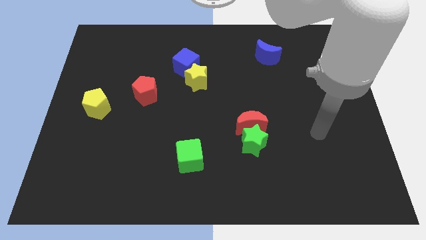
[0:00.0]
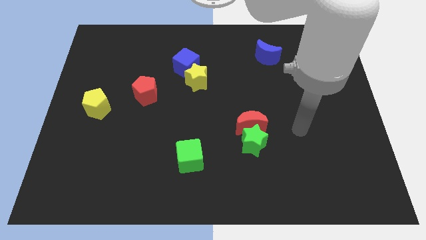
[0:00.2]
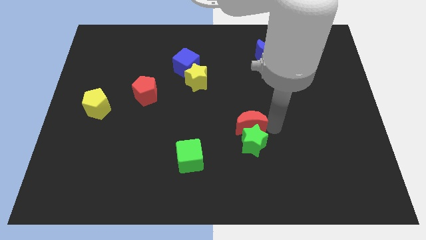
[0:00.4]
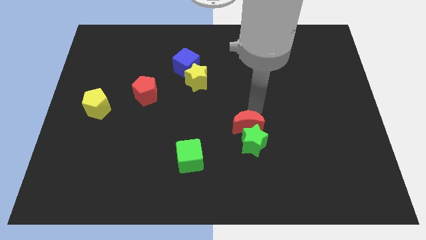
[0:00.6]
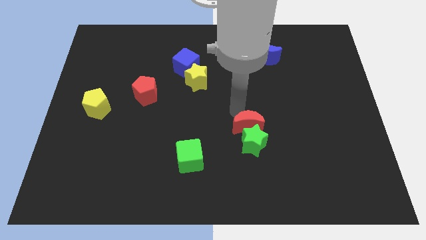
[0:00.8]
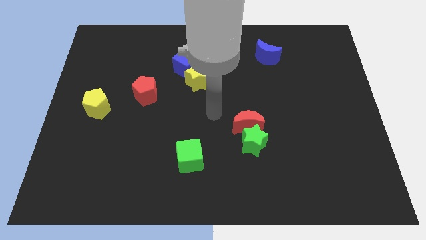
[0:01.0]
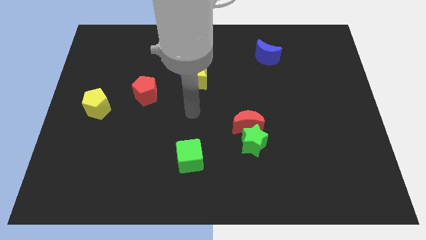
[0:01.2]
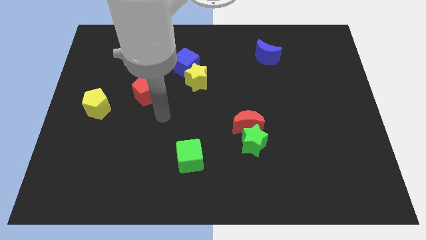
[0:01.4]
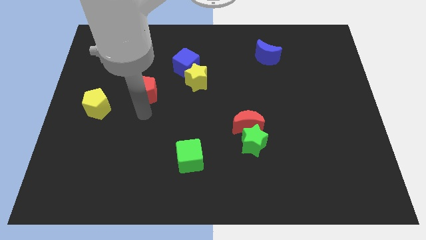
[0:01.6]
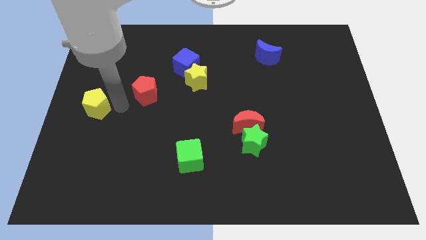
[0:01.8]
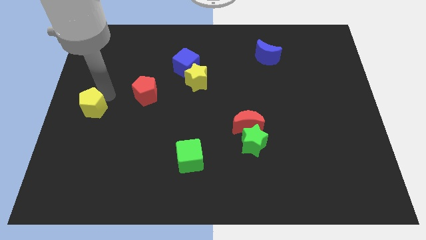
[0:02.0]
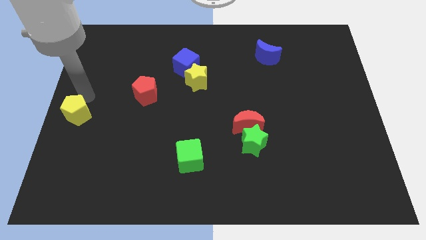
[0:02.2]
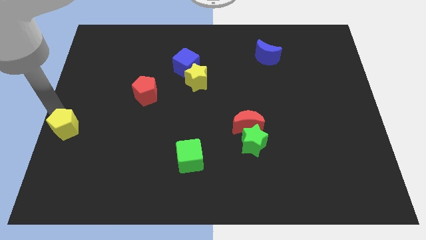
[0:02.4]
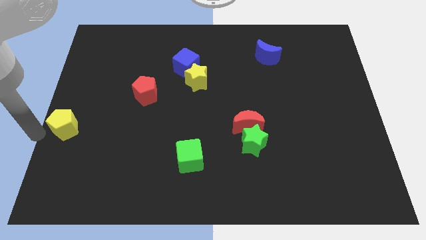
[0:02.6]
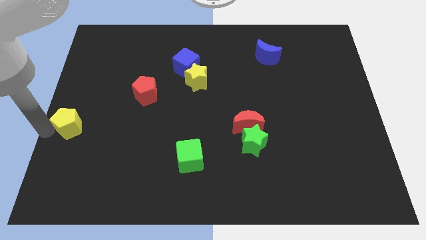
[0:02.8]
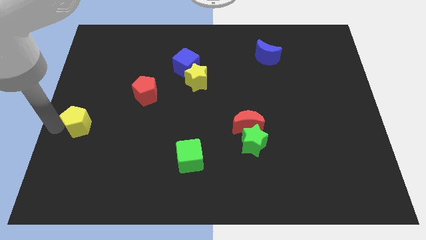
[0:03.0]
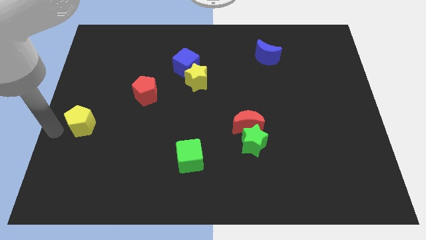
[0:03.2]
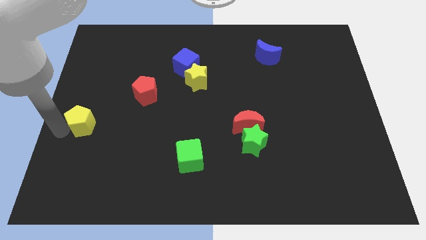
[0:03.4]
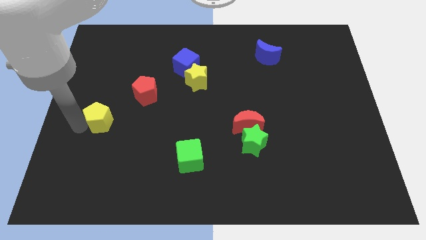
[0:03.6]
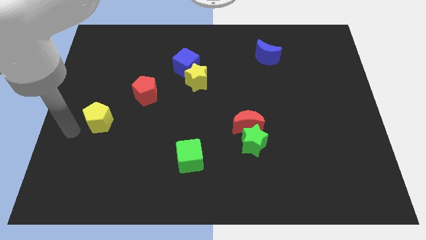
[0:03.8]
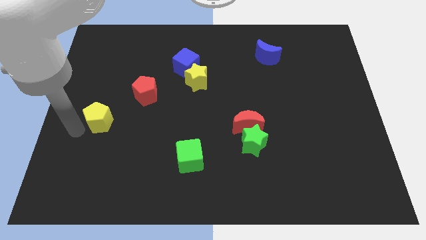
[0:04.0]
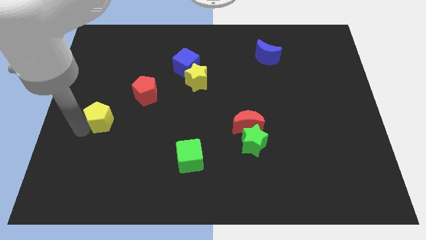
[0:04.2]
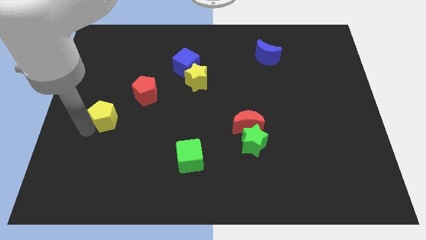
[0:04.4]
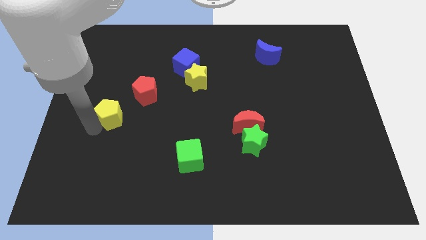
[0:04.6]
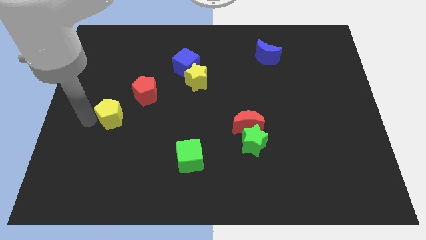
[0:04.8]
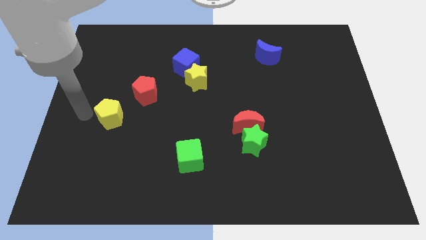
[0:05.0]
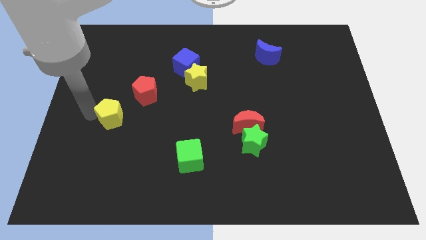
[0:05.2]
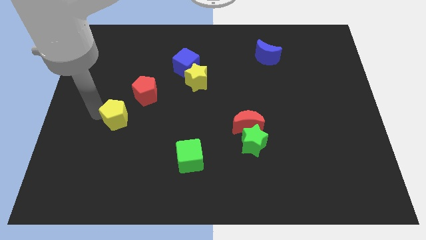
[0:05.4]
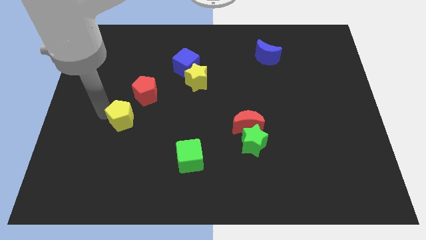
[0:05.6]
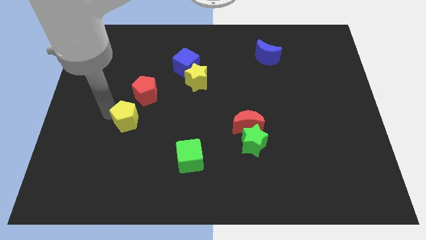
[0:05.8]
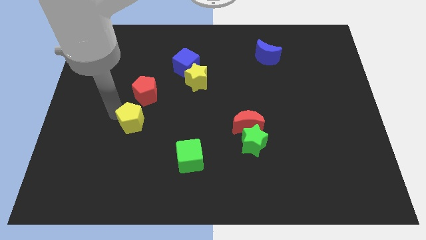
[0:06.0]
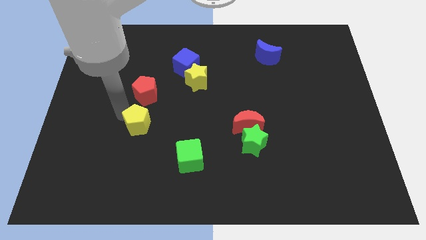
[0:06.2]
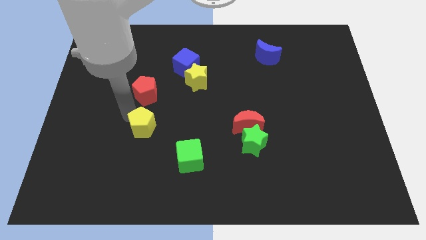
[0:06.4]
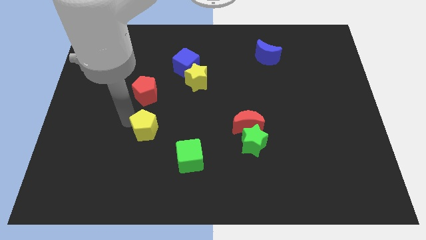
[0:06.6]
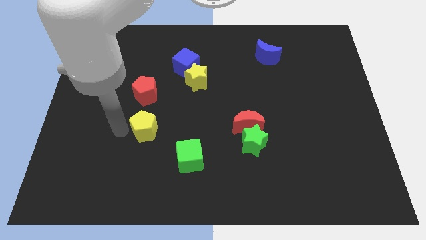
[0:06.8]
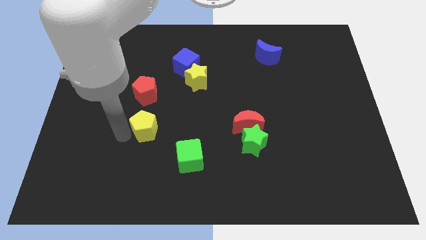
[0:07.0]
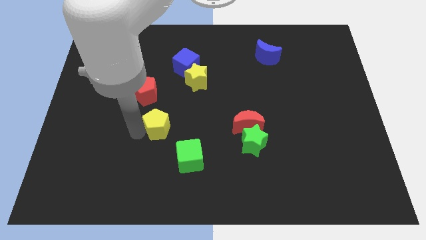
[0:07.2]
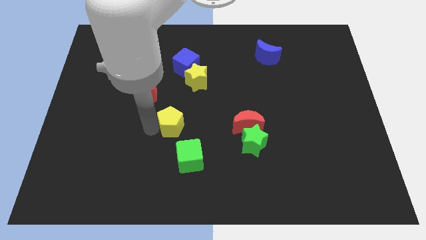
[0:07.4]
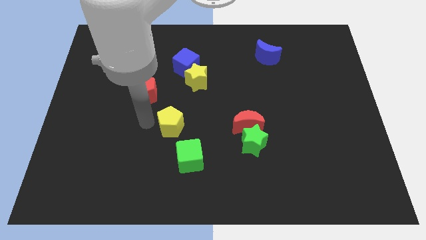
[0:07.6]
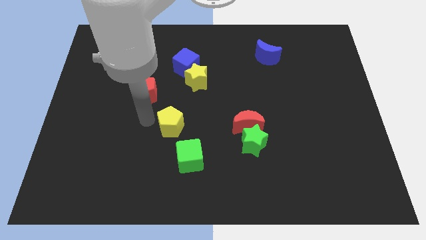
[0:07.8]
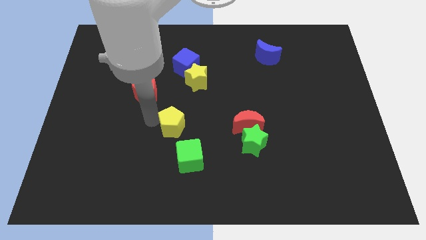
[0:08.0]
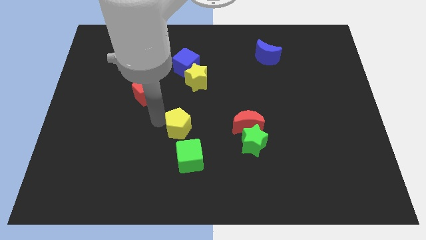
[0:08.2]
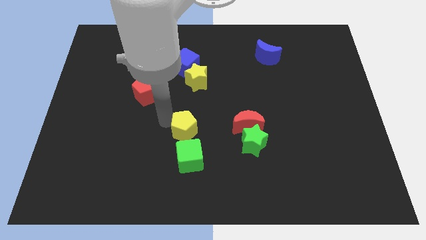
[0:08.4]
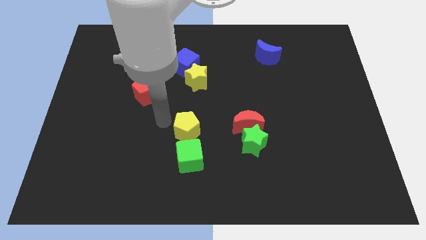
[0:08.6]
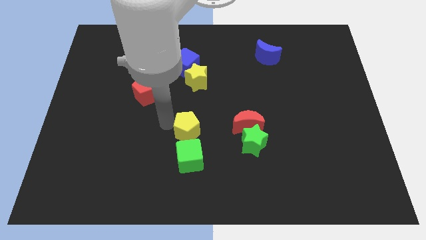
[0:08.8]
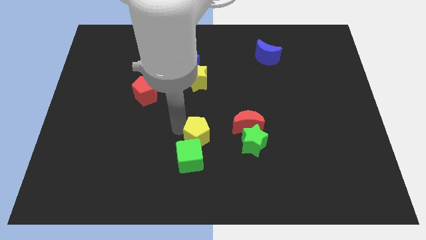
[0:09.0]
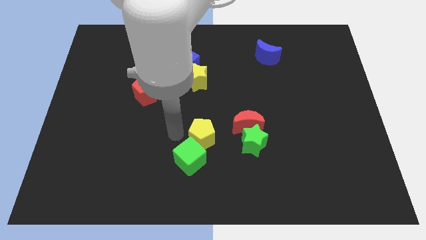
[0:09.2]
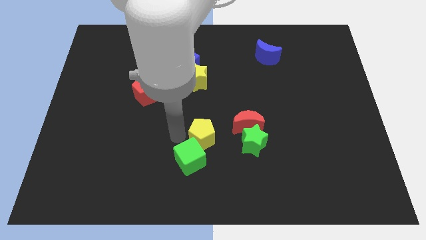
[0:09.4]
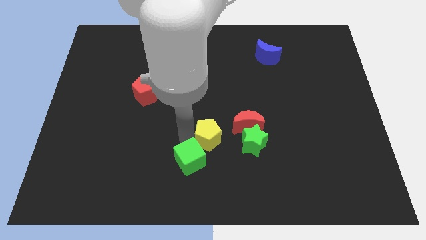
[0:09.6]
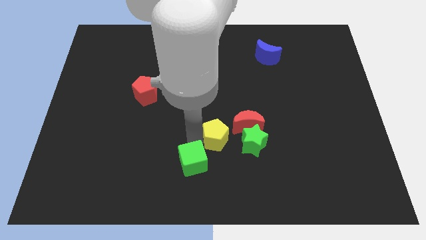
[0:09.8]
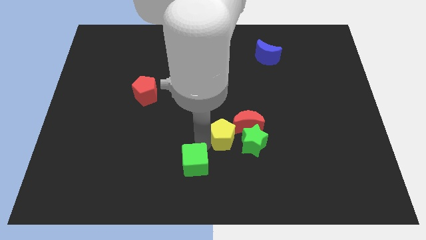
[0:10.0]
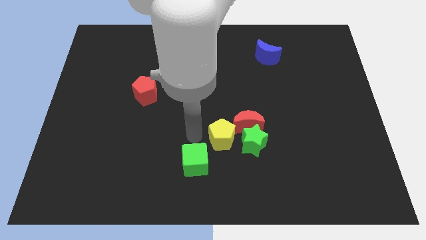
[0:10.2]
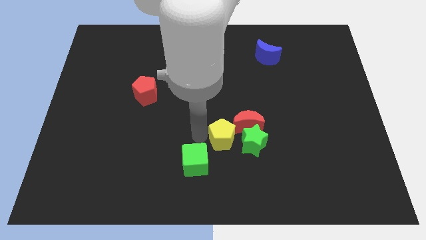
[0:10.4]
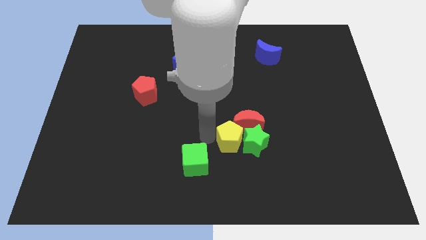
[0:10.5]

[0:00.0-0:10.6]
slide the yellow pentagon to the green star
